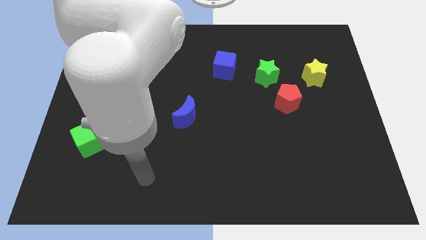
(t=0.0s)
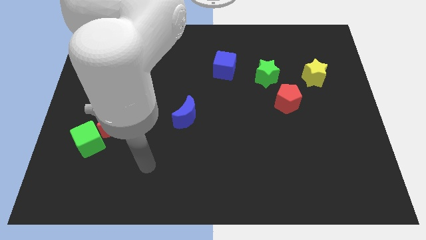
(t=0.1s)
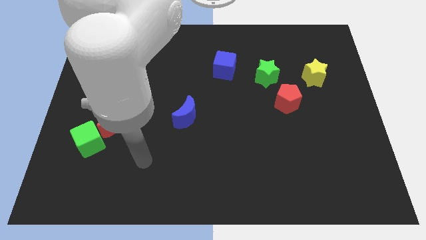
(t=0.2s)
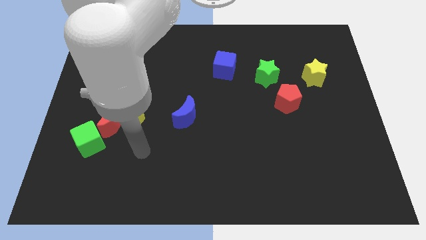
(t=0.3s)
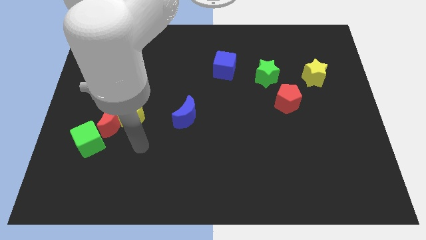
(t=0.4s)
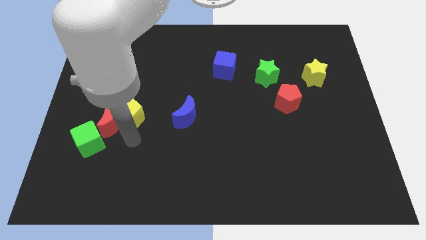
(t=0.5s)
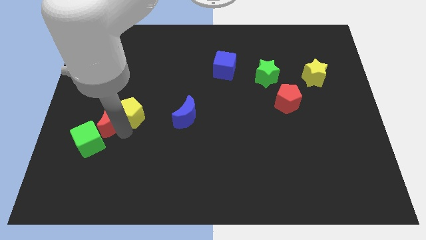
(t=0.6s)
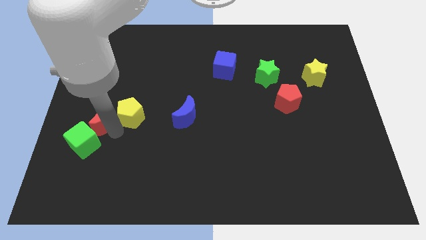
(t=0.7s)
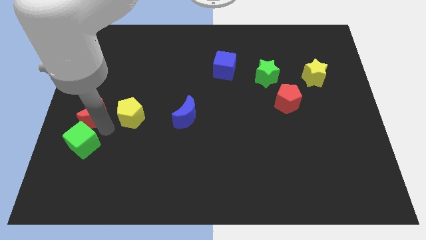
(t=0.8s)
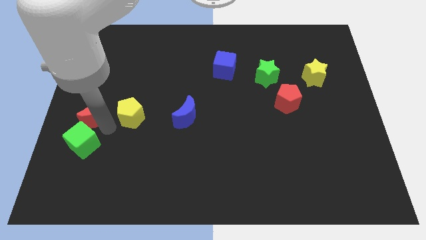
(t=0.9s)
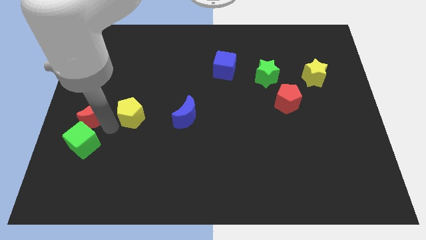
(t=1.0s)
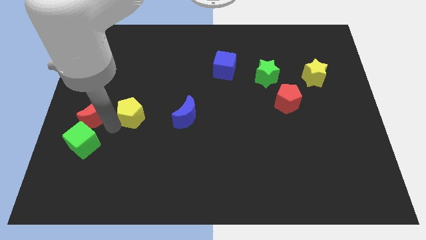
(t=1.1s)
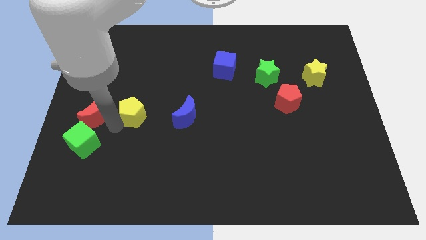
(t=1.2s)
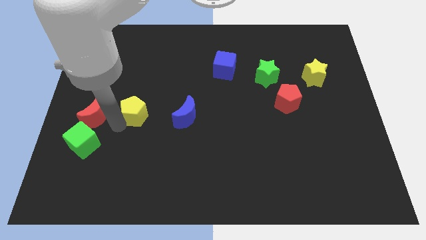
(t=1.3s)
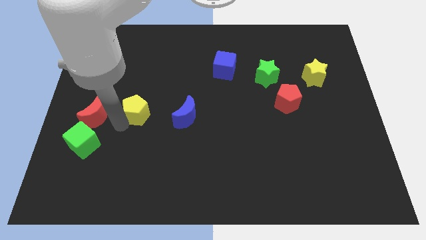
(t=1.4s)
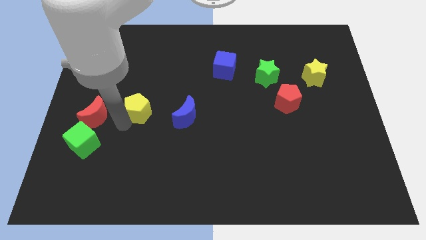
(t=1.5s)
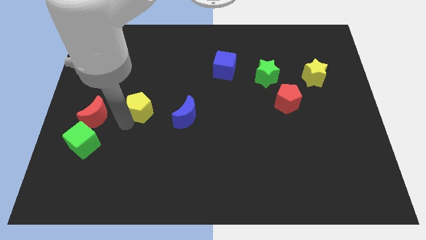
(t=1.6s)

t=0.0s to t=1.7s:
separate the yellow pentagon from the red moon

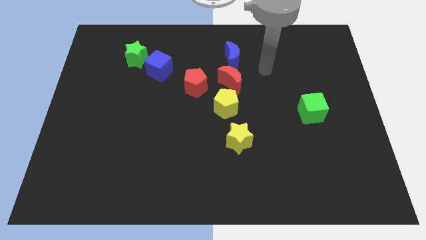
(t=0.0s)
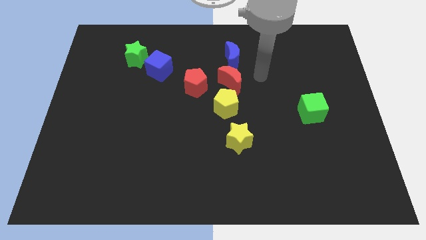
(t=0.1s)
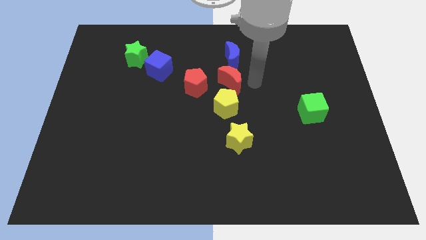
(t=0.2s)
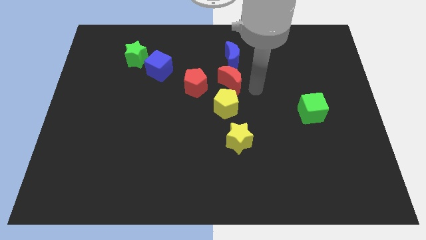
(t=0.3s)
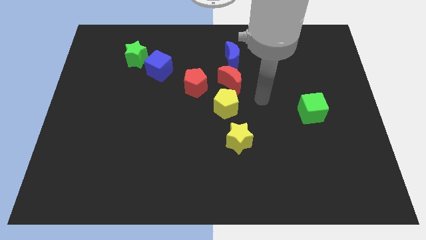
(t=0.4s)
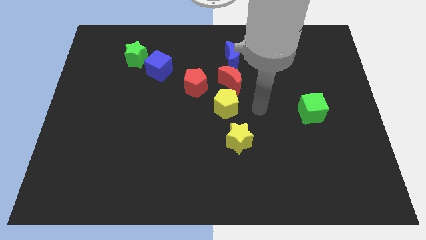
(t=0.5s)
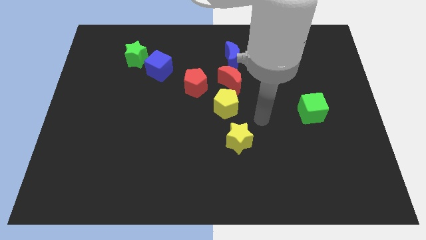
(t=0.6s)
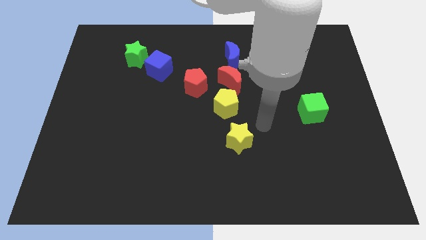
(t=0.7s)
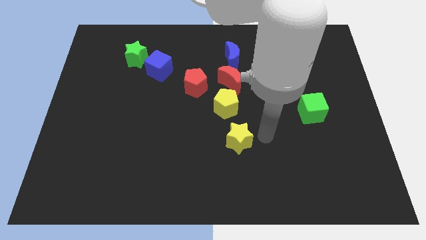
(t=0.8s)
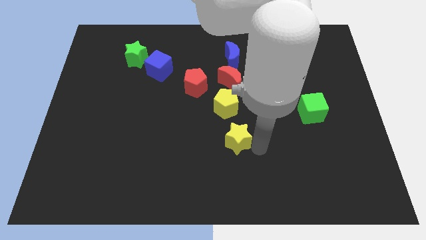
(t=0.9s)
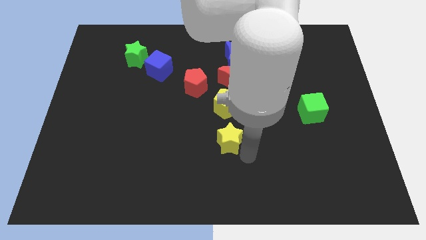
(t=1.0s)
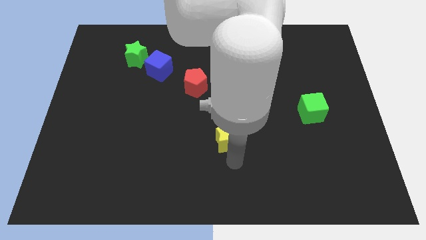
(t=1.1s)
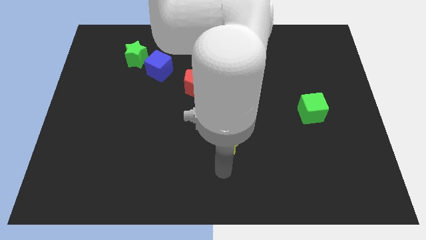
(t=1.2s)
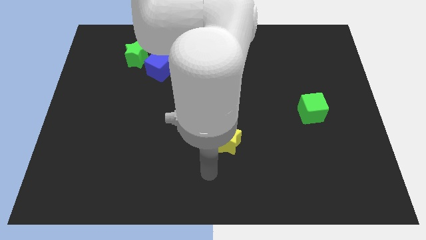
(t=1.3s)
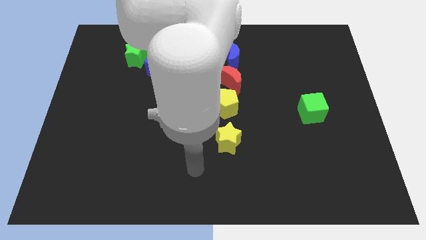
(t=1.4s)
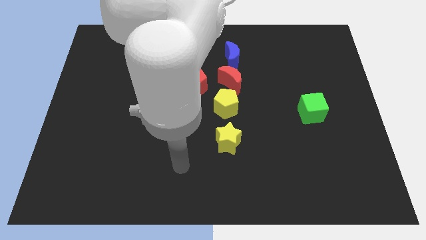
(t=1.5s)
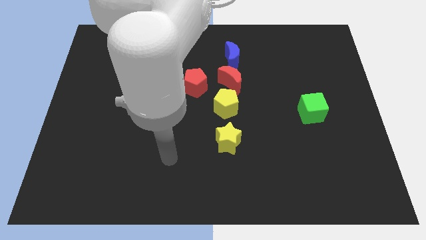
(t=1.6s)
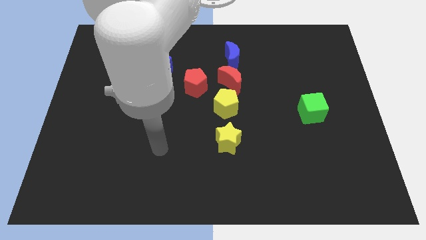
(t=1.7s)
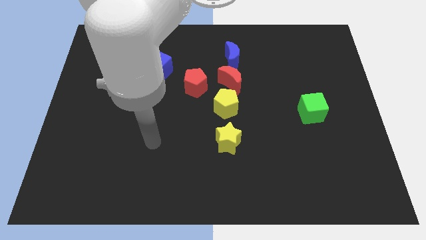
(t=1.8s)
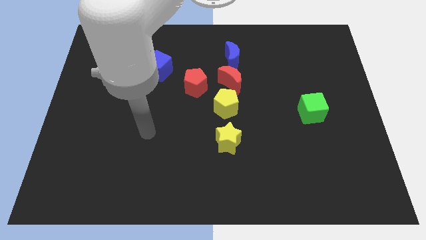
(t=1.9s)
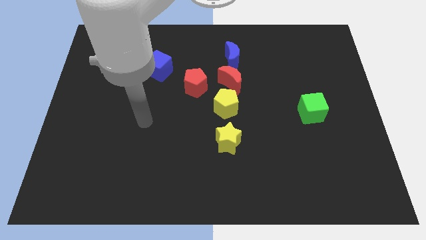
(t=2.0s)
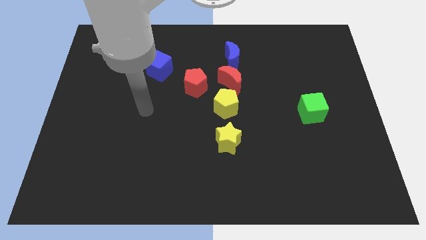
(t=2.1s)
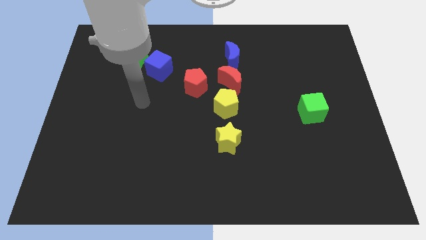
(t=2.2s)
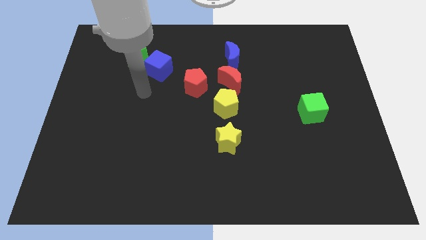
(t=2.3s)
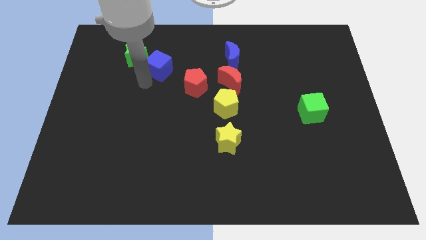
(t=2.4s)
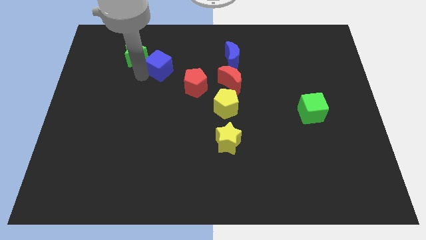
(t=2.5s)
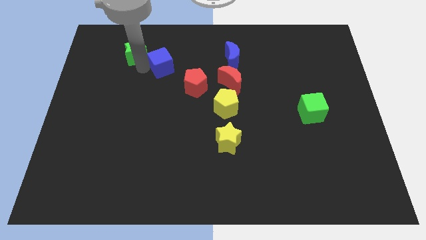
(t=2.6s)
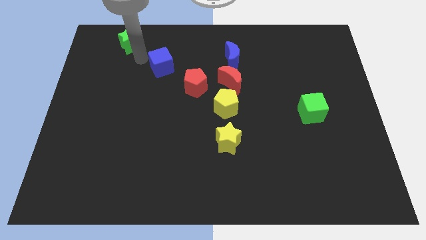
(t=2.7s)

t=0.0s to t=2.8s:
separate the blue cube from the green star

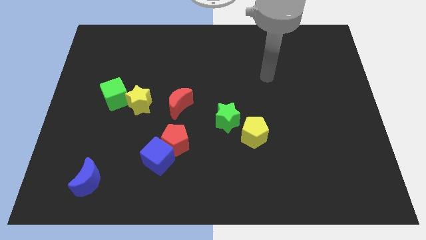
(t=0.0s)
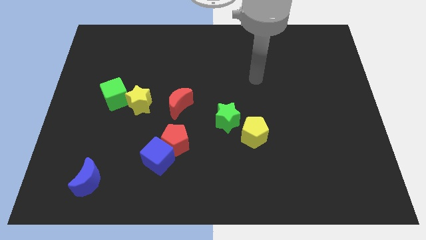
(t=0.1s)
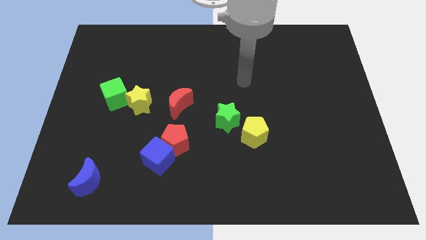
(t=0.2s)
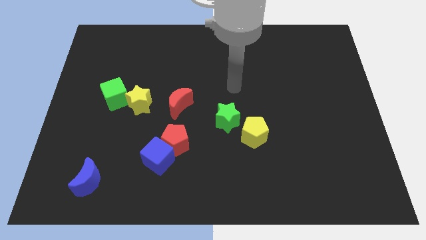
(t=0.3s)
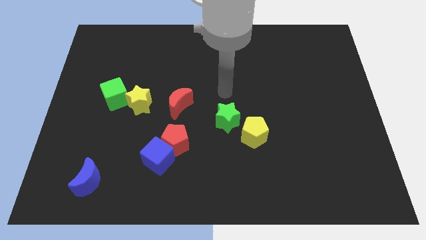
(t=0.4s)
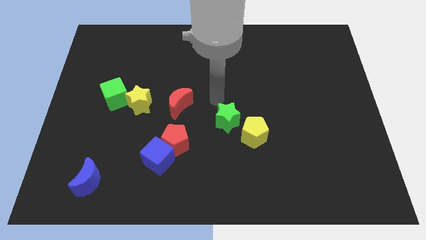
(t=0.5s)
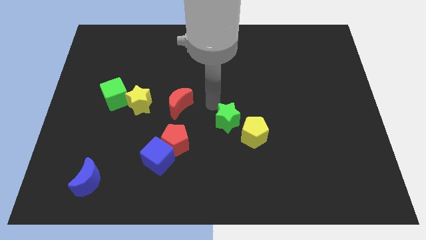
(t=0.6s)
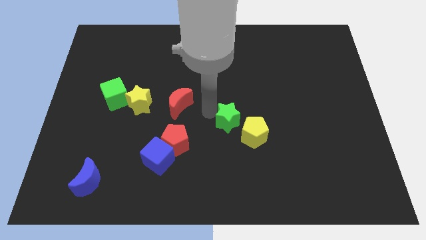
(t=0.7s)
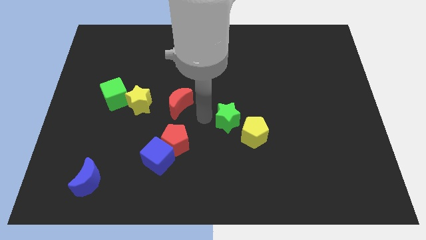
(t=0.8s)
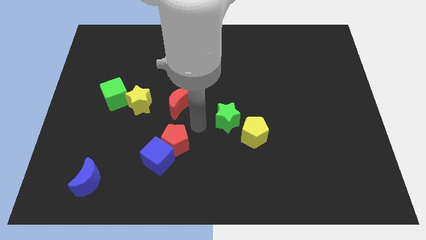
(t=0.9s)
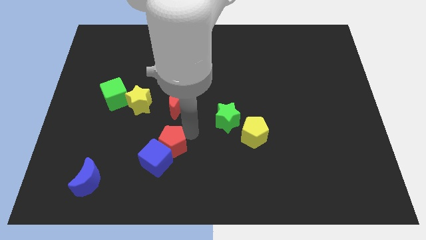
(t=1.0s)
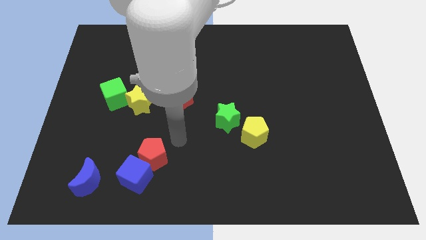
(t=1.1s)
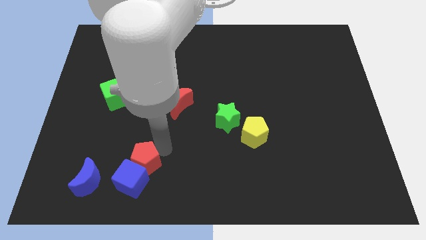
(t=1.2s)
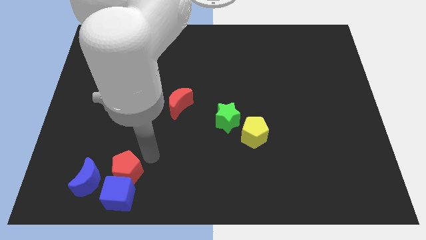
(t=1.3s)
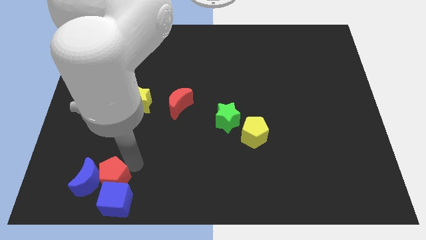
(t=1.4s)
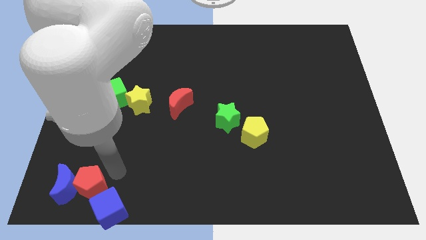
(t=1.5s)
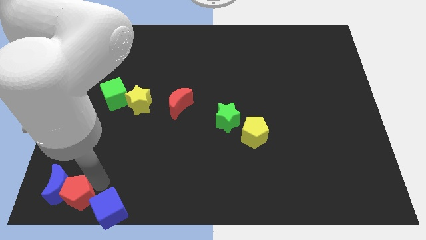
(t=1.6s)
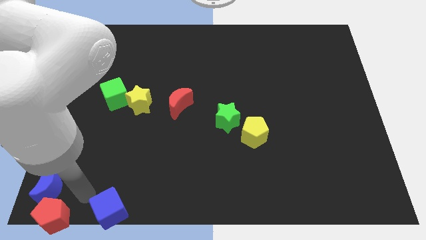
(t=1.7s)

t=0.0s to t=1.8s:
move the blue cube away from the red pentagon

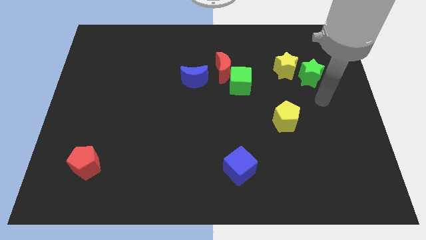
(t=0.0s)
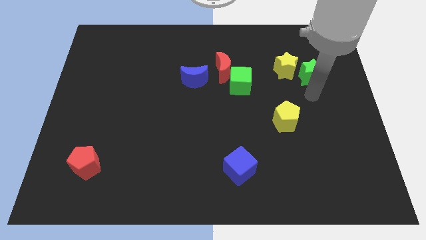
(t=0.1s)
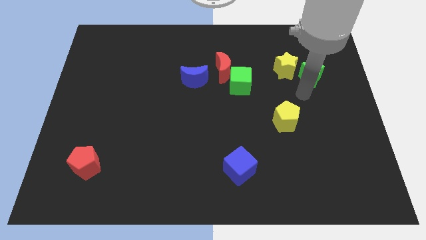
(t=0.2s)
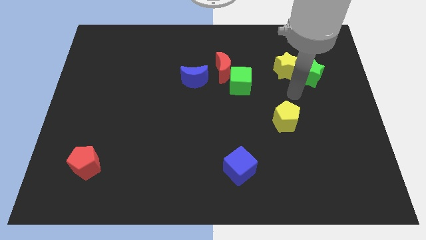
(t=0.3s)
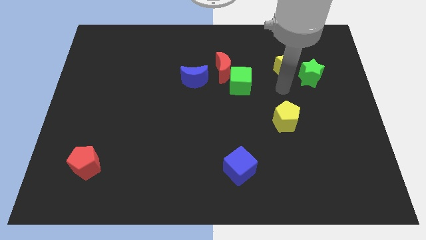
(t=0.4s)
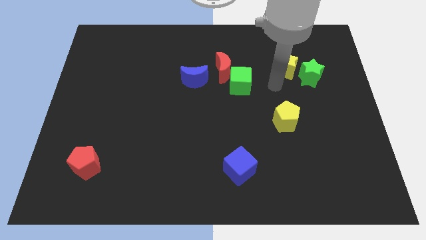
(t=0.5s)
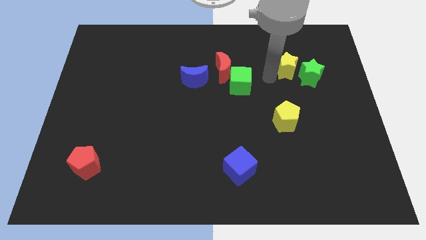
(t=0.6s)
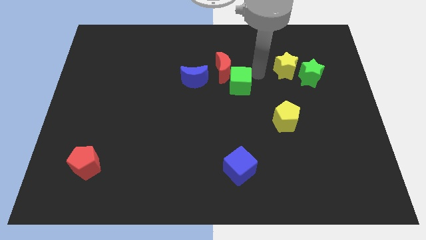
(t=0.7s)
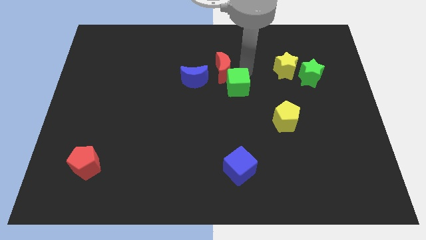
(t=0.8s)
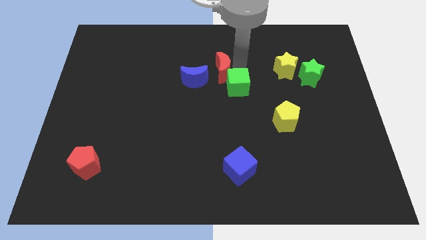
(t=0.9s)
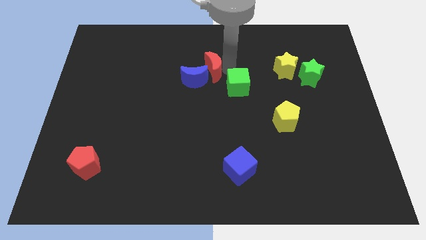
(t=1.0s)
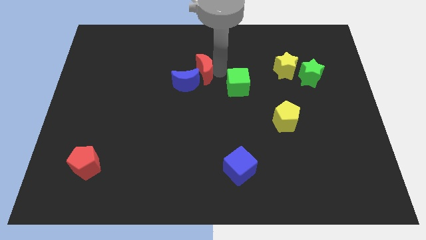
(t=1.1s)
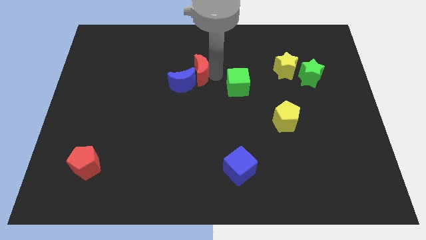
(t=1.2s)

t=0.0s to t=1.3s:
separate the green cube from the red moon

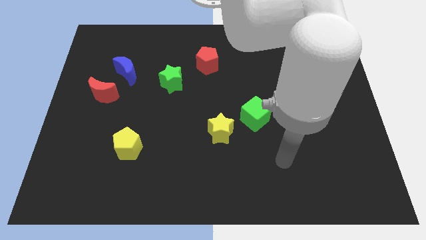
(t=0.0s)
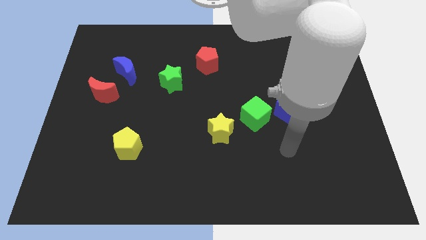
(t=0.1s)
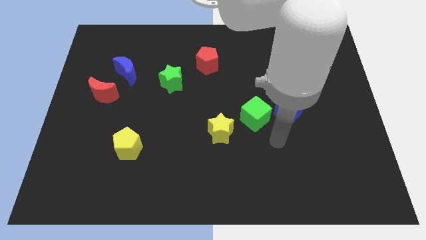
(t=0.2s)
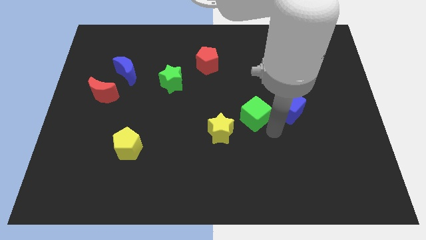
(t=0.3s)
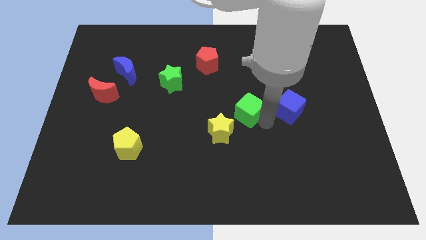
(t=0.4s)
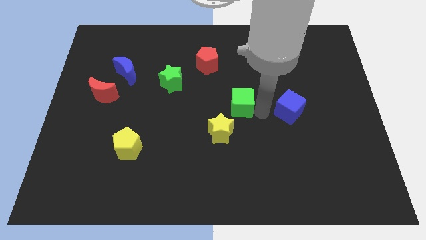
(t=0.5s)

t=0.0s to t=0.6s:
move the blue cube away from the green cube

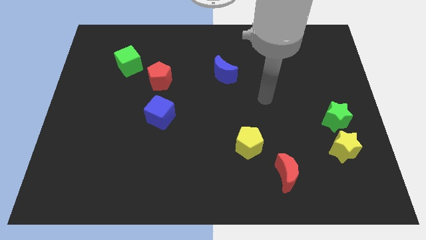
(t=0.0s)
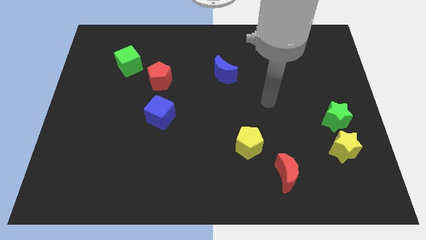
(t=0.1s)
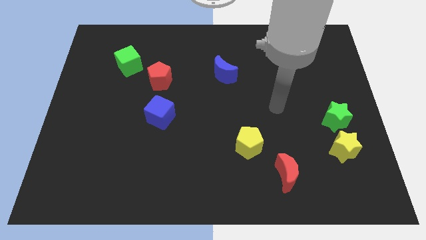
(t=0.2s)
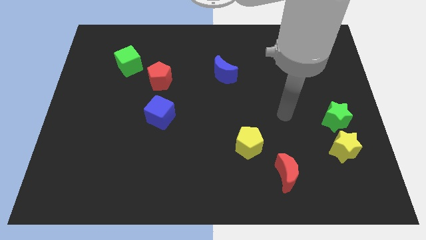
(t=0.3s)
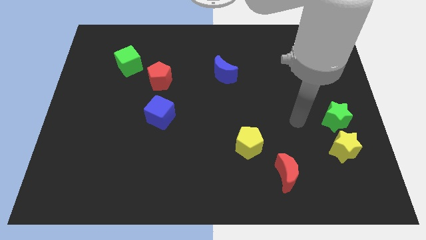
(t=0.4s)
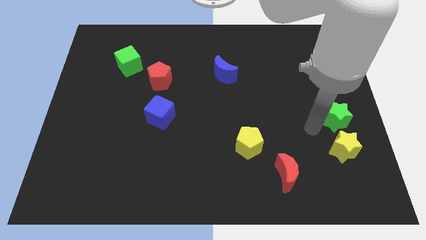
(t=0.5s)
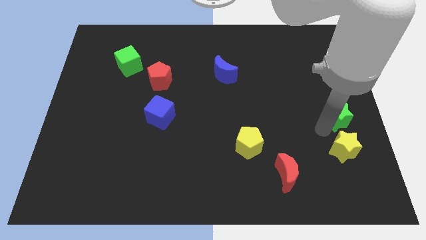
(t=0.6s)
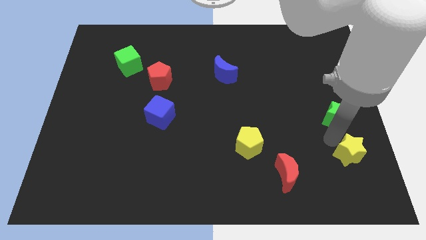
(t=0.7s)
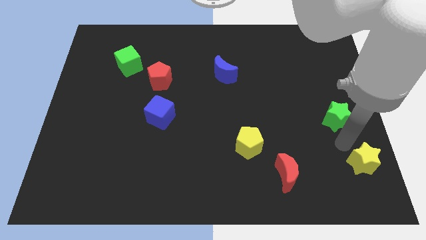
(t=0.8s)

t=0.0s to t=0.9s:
separate the green star from the yellow star

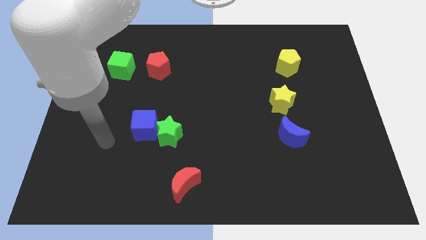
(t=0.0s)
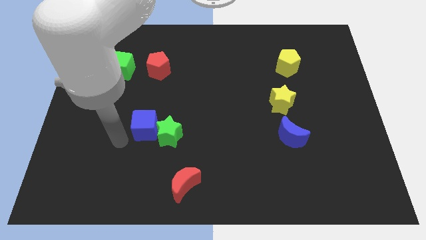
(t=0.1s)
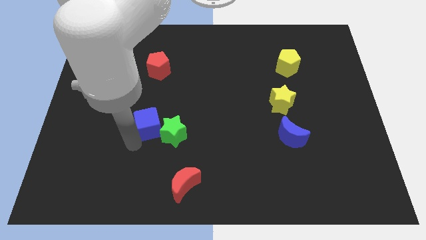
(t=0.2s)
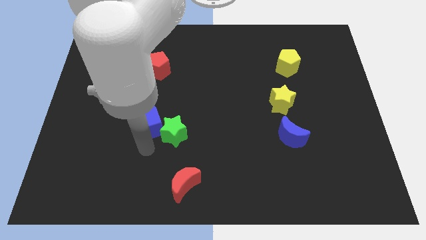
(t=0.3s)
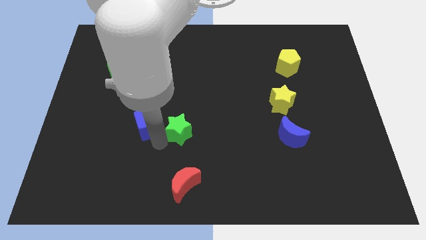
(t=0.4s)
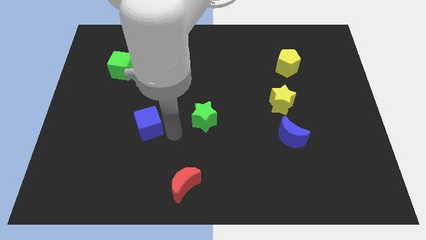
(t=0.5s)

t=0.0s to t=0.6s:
pull the blue cube apart from the green star
